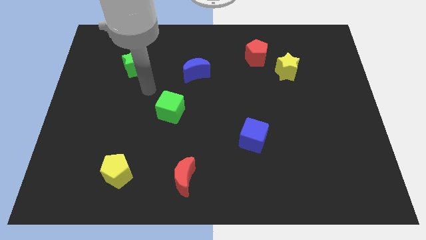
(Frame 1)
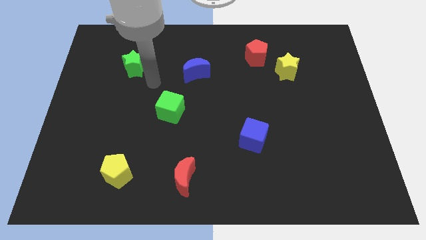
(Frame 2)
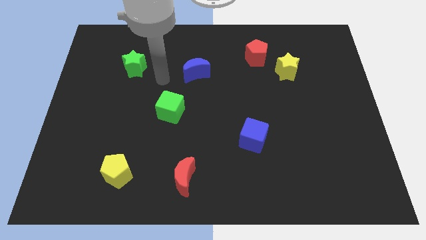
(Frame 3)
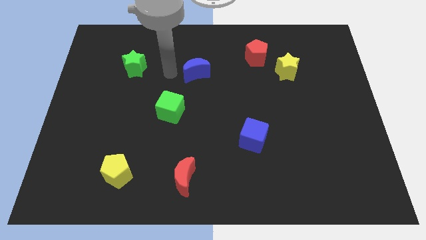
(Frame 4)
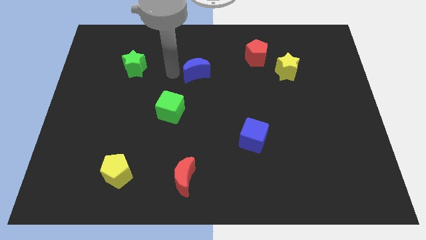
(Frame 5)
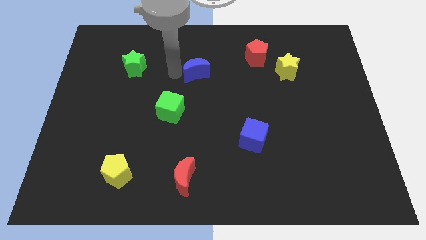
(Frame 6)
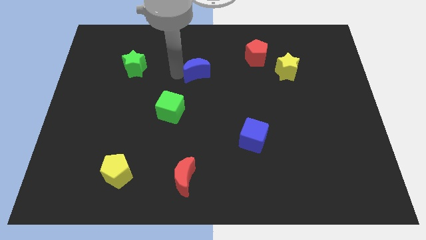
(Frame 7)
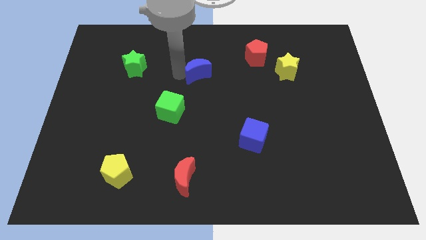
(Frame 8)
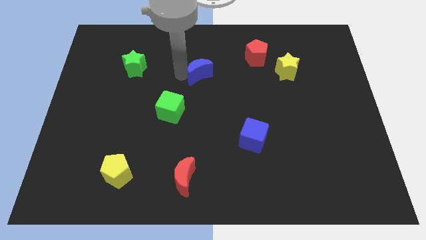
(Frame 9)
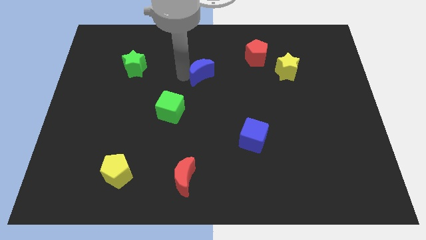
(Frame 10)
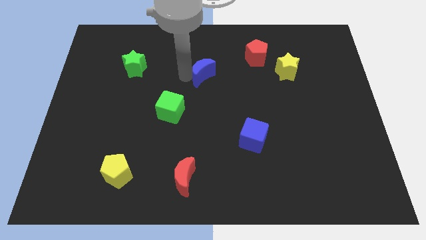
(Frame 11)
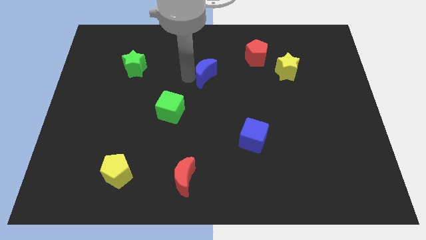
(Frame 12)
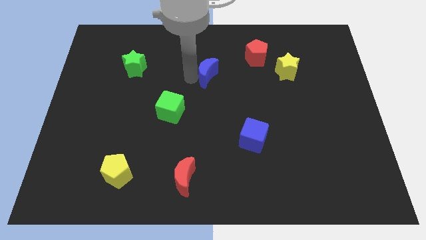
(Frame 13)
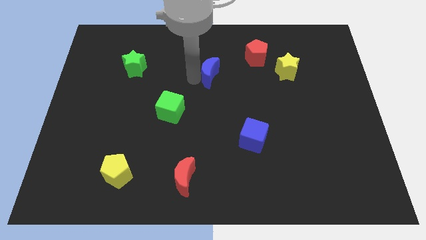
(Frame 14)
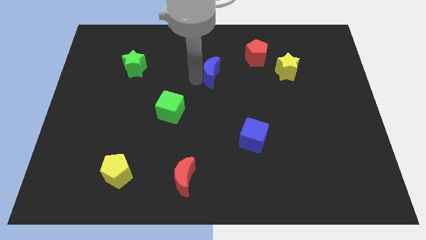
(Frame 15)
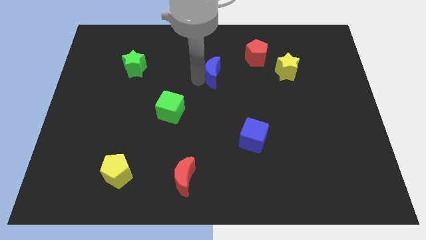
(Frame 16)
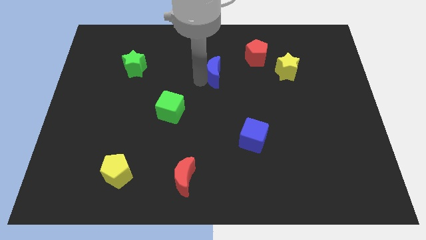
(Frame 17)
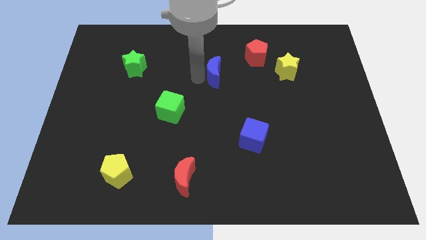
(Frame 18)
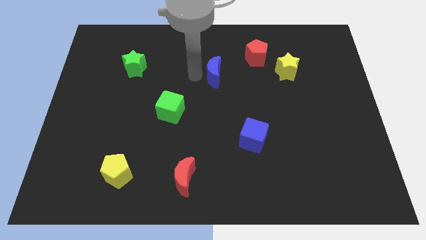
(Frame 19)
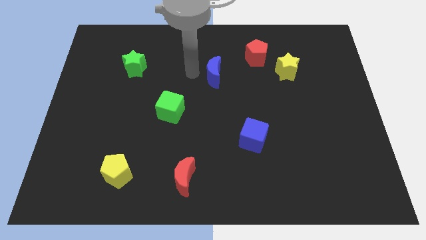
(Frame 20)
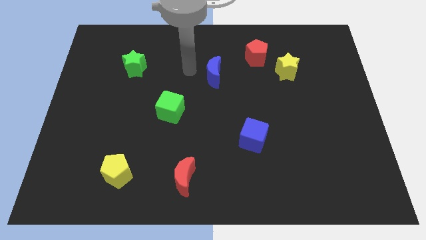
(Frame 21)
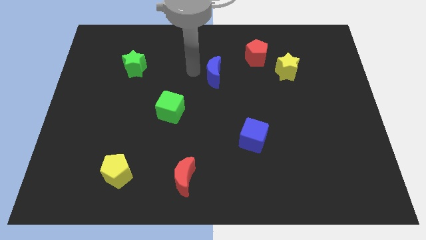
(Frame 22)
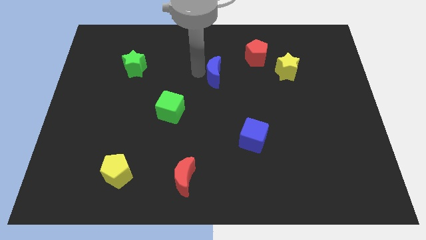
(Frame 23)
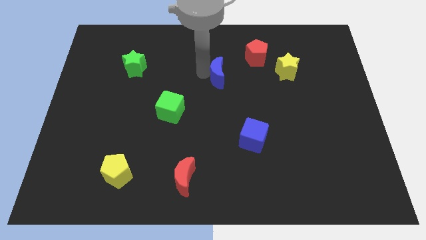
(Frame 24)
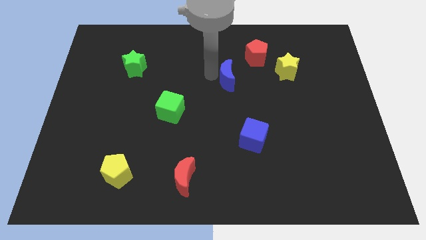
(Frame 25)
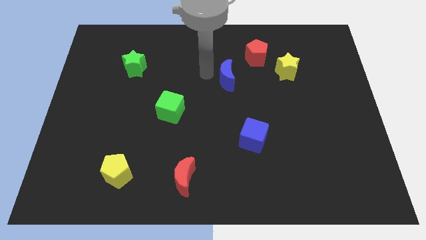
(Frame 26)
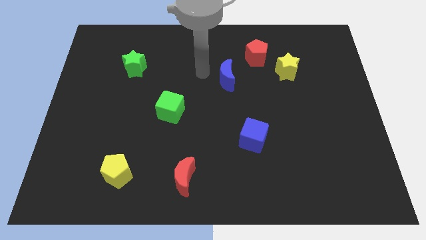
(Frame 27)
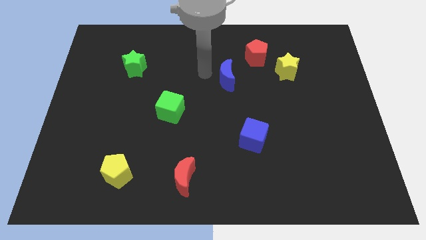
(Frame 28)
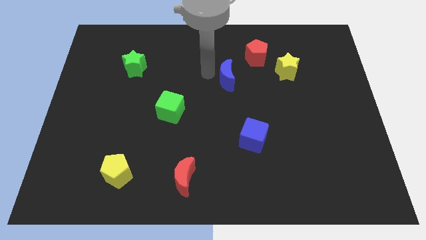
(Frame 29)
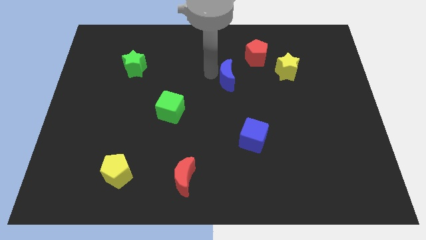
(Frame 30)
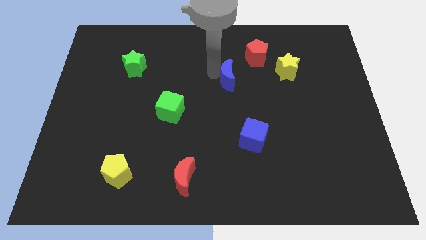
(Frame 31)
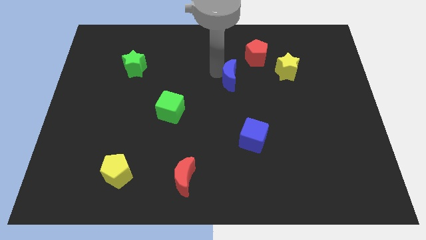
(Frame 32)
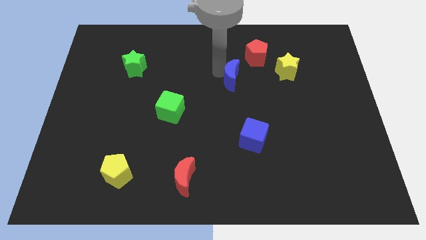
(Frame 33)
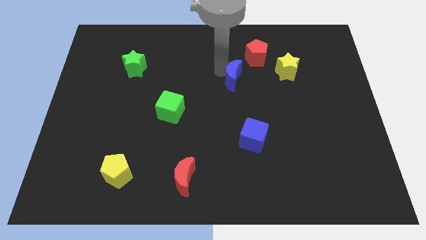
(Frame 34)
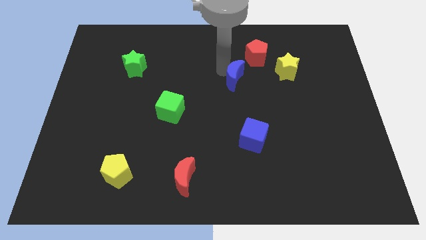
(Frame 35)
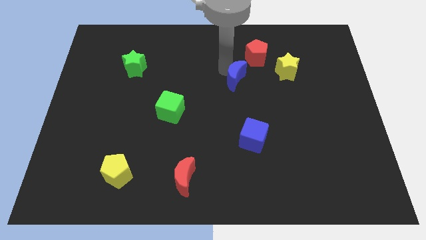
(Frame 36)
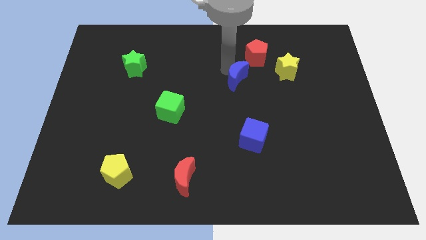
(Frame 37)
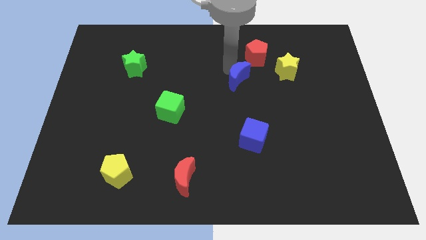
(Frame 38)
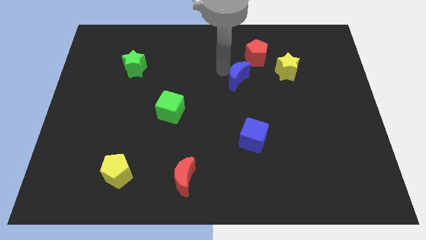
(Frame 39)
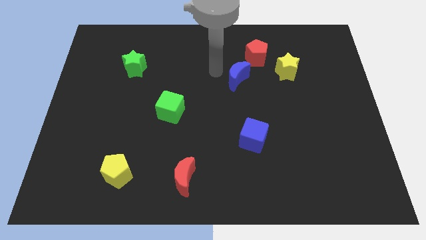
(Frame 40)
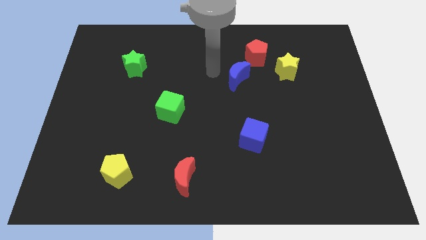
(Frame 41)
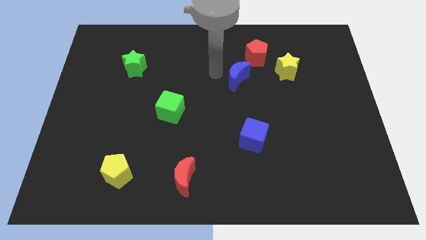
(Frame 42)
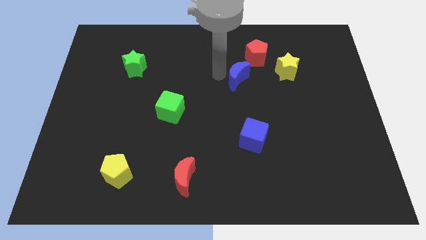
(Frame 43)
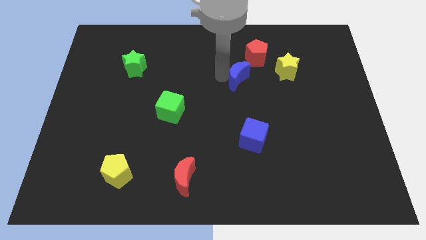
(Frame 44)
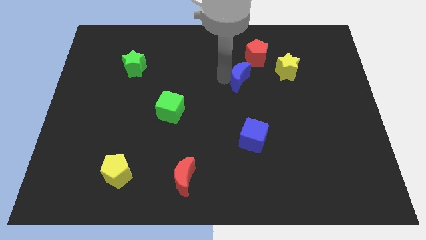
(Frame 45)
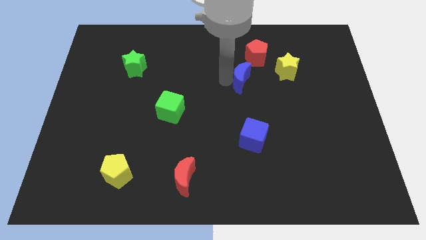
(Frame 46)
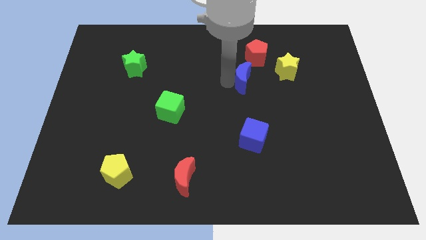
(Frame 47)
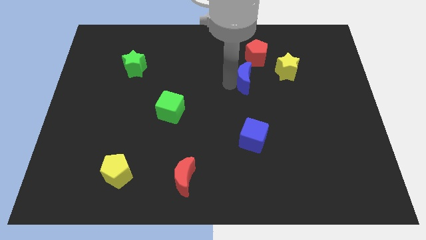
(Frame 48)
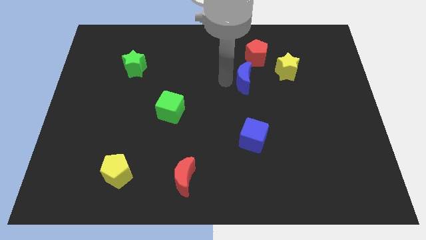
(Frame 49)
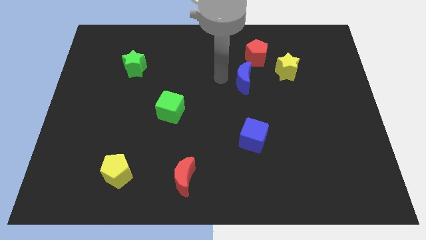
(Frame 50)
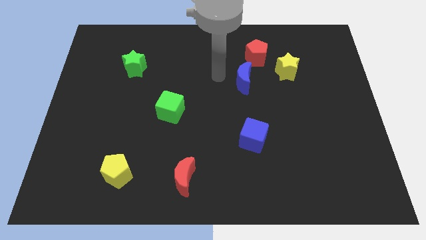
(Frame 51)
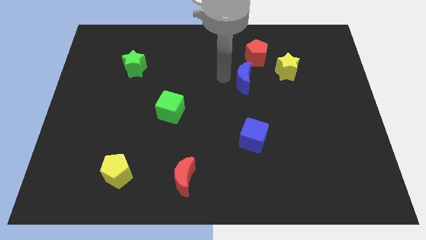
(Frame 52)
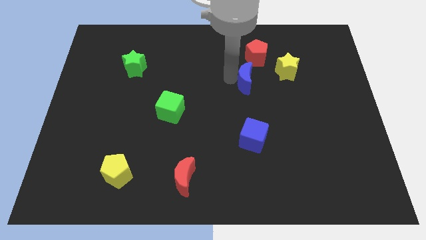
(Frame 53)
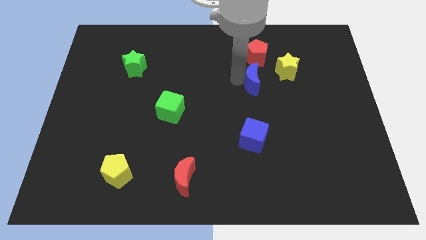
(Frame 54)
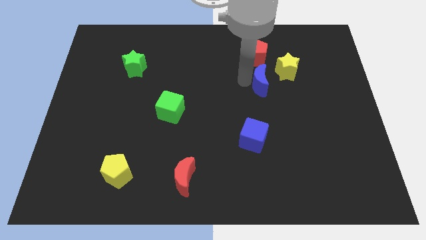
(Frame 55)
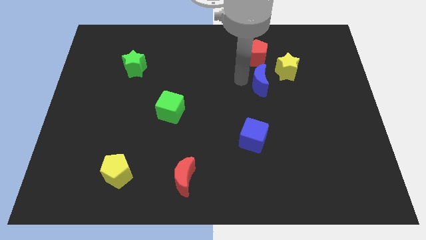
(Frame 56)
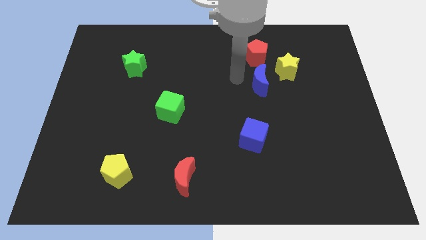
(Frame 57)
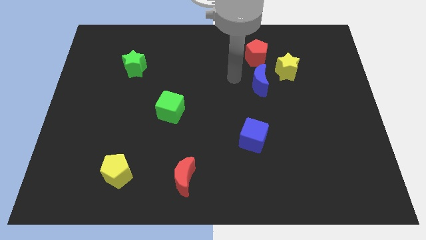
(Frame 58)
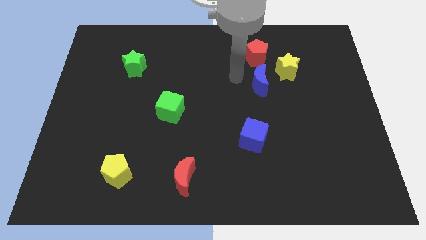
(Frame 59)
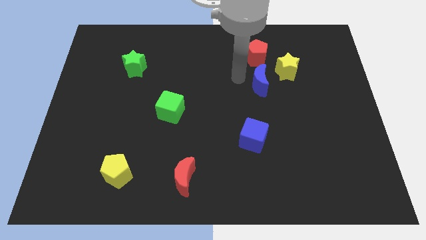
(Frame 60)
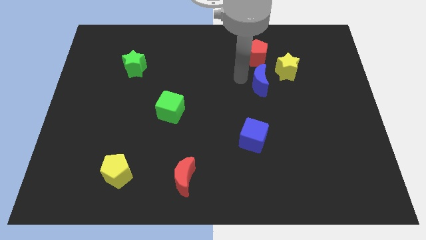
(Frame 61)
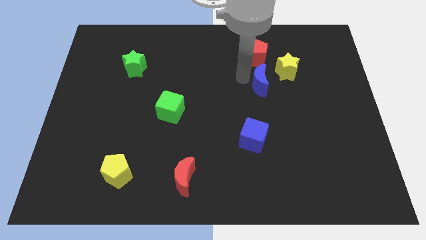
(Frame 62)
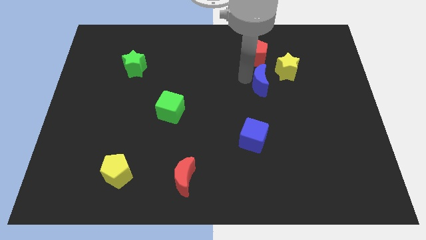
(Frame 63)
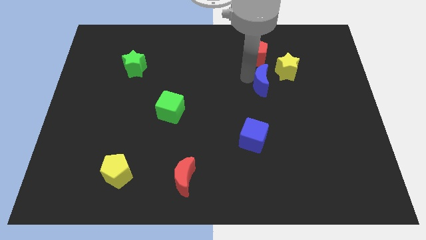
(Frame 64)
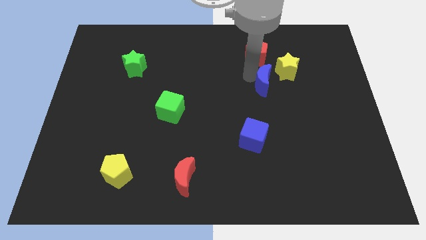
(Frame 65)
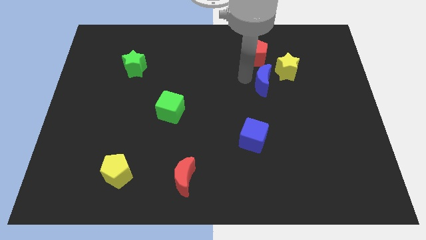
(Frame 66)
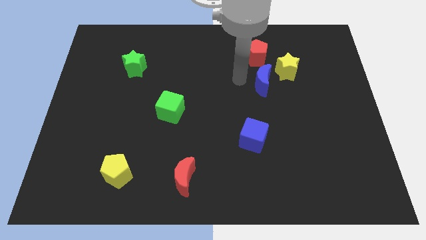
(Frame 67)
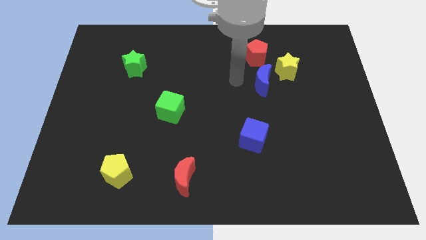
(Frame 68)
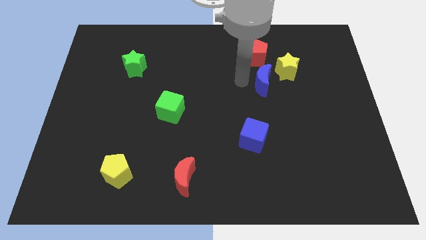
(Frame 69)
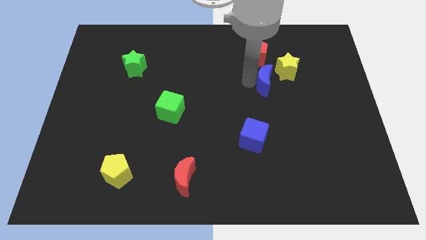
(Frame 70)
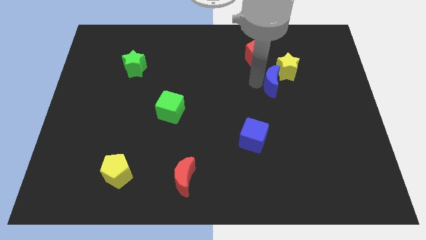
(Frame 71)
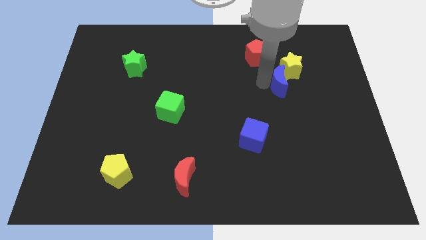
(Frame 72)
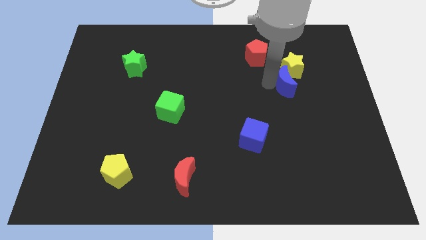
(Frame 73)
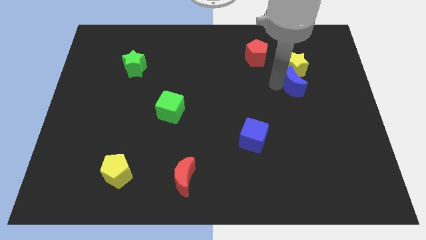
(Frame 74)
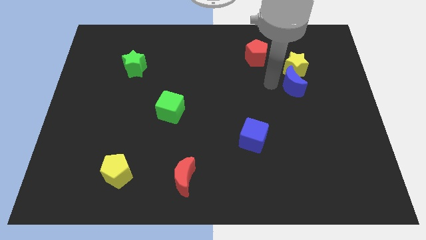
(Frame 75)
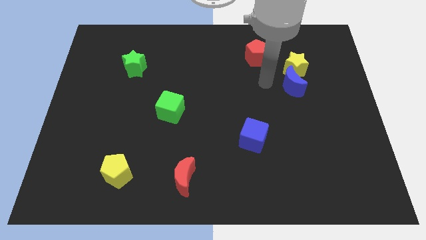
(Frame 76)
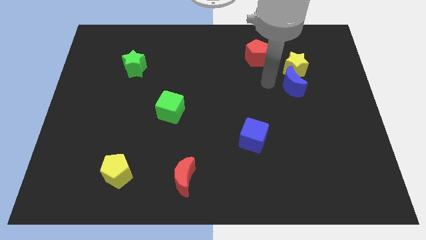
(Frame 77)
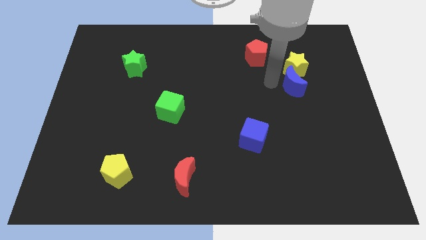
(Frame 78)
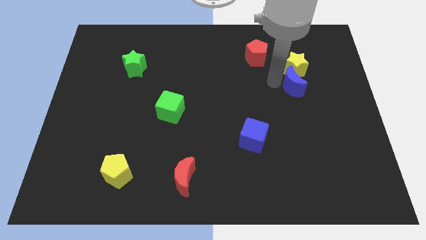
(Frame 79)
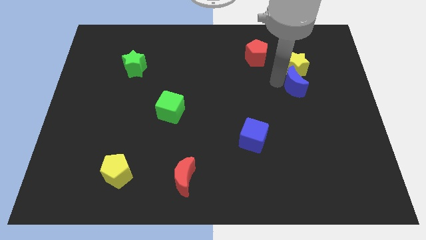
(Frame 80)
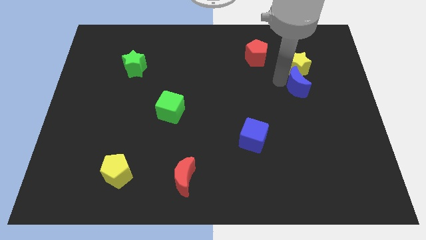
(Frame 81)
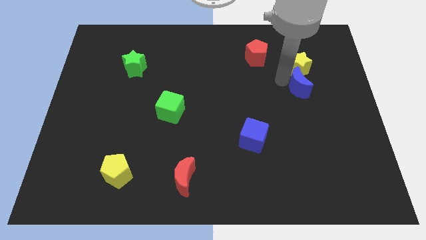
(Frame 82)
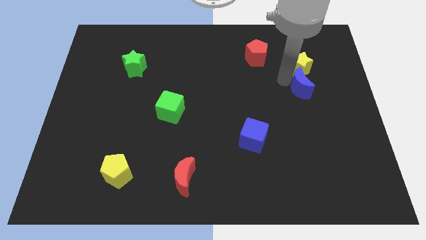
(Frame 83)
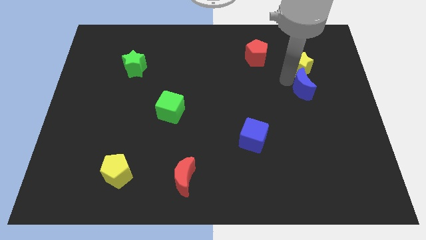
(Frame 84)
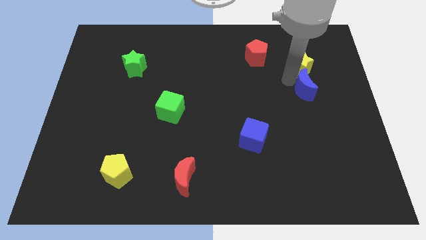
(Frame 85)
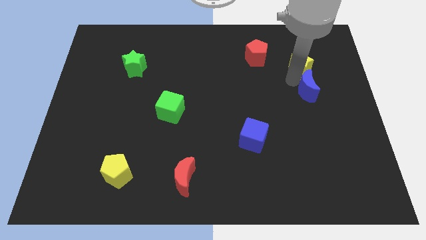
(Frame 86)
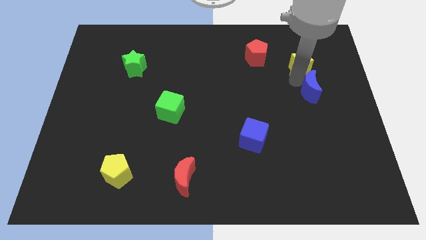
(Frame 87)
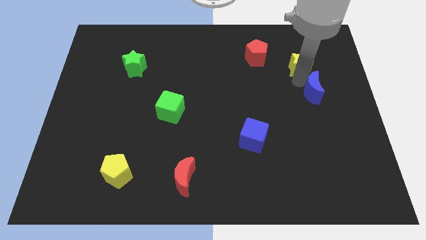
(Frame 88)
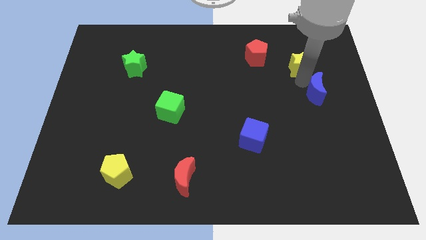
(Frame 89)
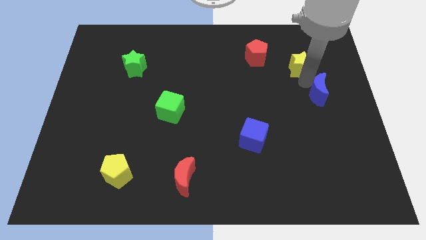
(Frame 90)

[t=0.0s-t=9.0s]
push the blue moon to the right side
